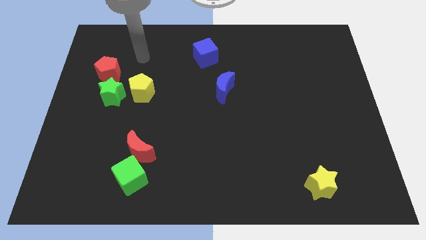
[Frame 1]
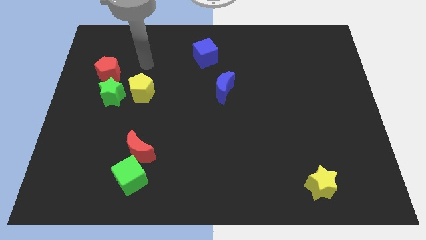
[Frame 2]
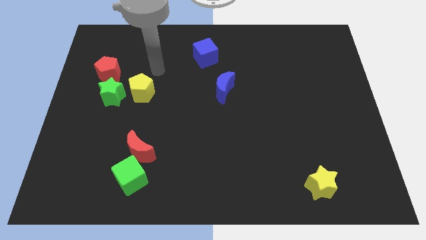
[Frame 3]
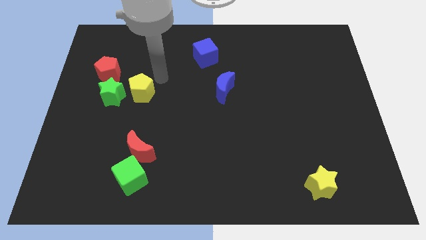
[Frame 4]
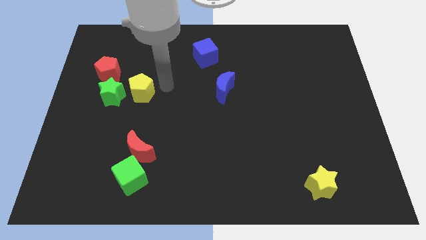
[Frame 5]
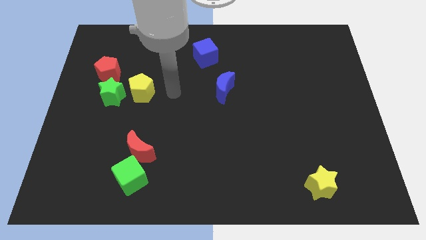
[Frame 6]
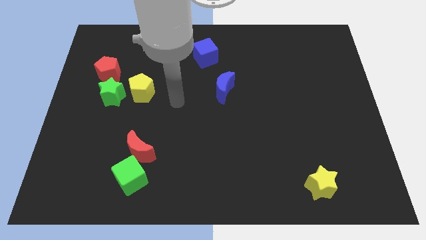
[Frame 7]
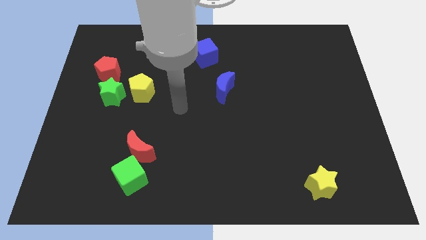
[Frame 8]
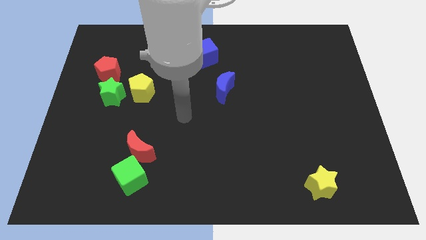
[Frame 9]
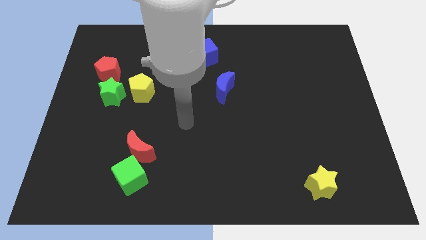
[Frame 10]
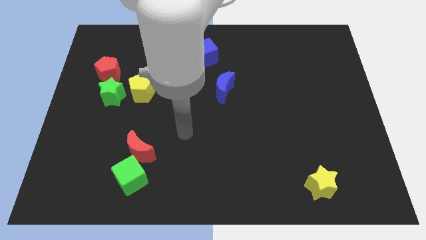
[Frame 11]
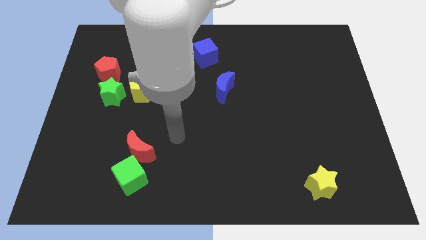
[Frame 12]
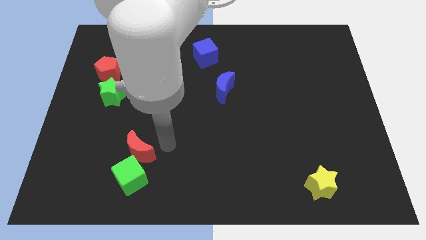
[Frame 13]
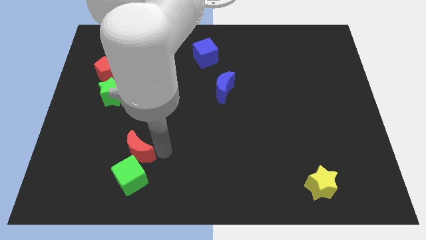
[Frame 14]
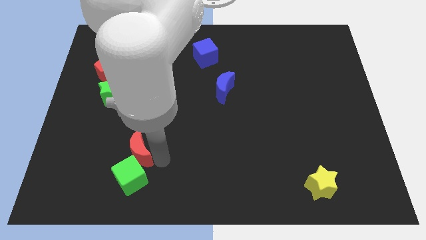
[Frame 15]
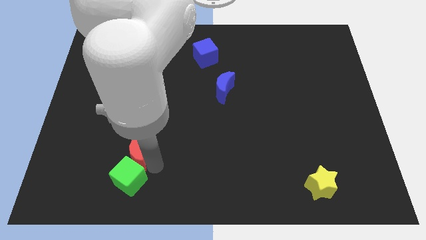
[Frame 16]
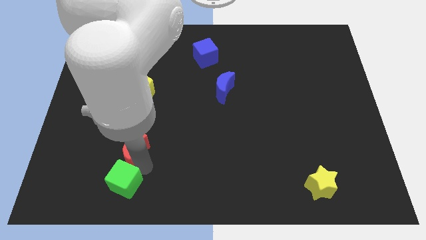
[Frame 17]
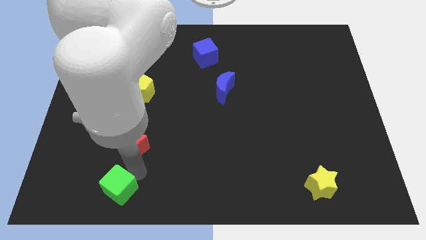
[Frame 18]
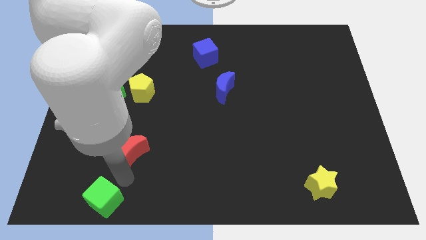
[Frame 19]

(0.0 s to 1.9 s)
separate the red moon from the green cube

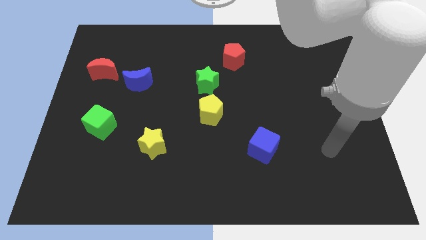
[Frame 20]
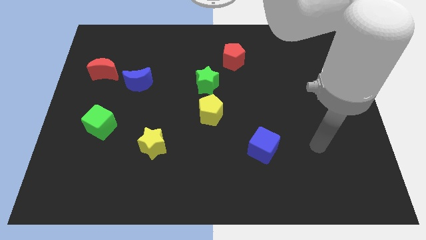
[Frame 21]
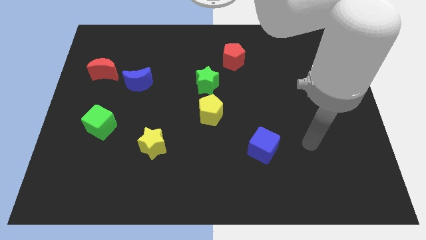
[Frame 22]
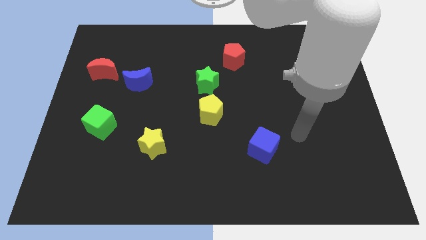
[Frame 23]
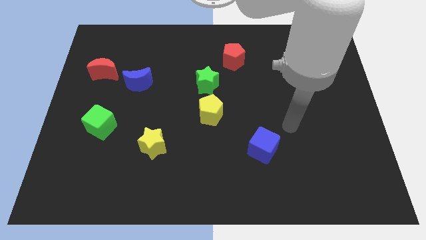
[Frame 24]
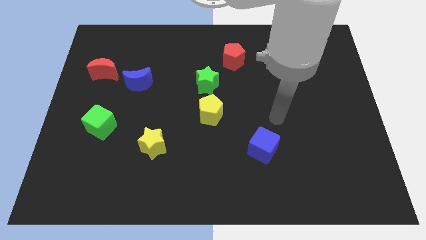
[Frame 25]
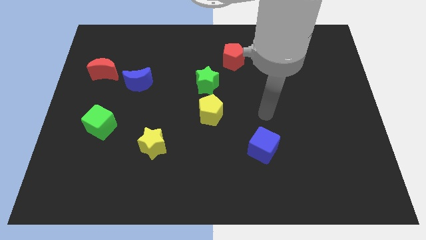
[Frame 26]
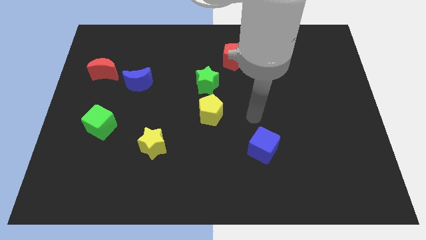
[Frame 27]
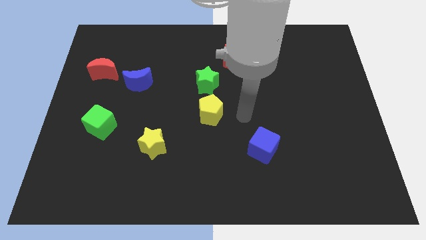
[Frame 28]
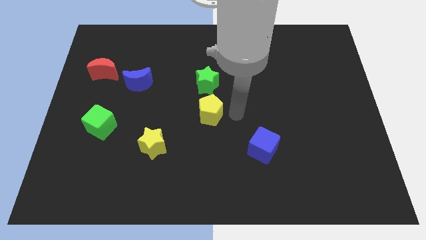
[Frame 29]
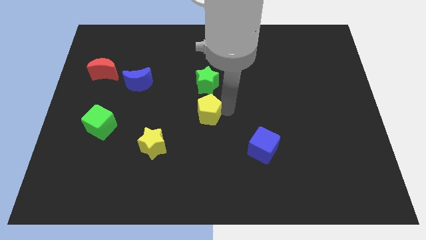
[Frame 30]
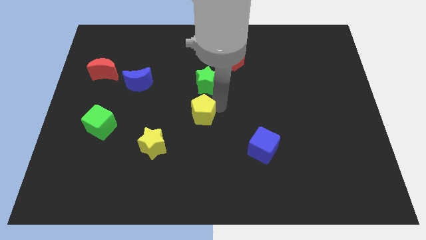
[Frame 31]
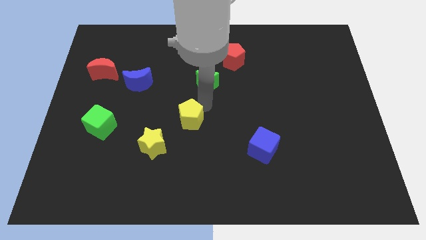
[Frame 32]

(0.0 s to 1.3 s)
move the green star away from the yellow pentagon

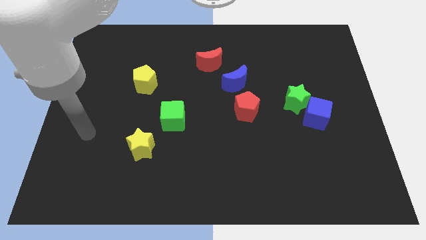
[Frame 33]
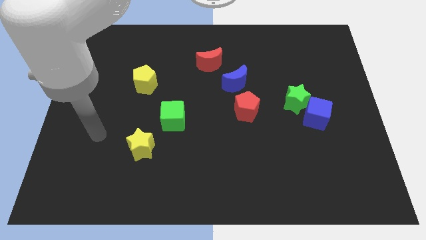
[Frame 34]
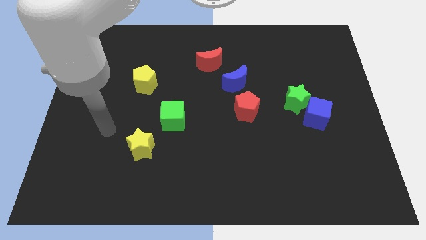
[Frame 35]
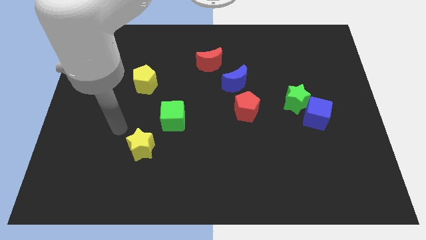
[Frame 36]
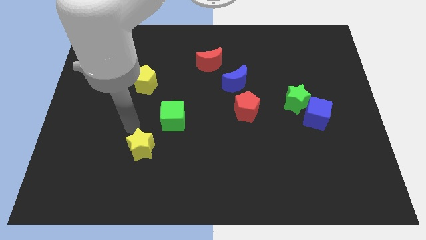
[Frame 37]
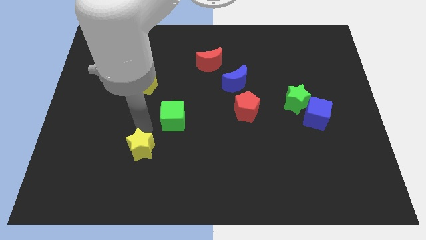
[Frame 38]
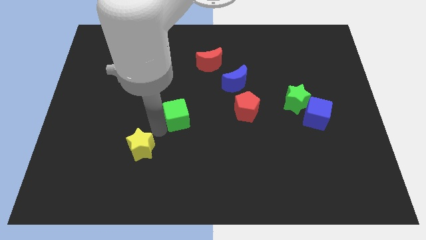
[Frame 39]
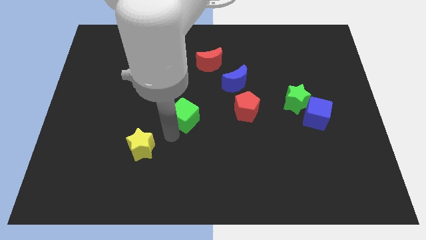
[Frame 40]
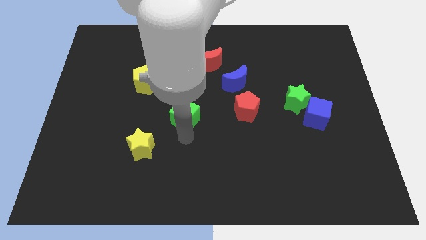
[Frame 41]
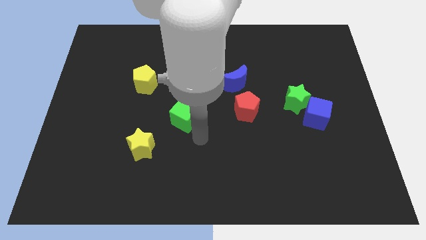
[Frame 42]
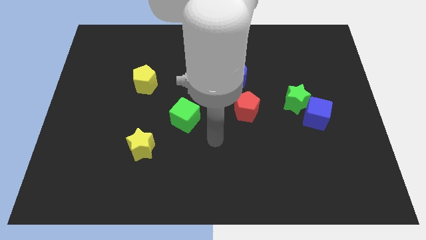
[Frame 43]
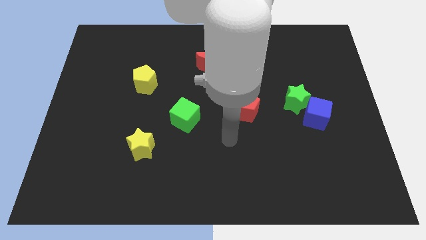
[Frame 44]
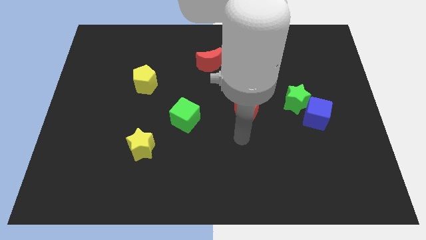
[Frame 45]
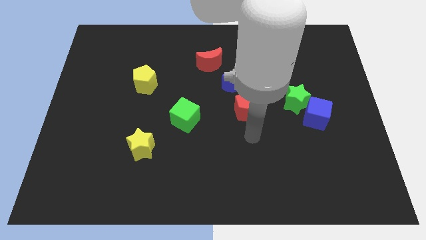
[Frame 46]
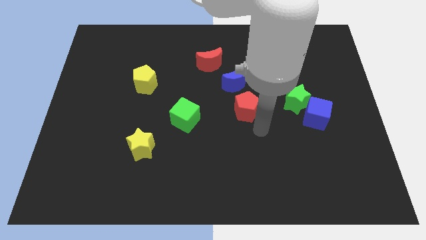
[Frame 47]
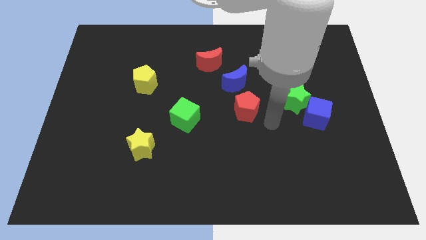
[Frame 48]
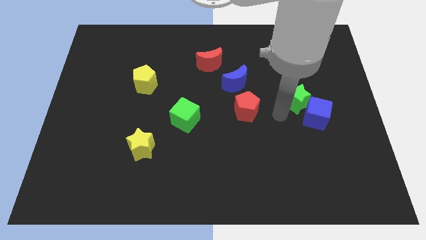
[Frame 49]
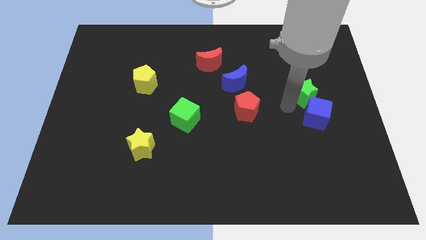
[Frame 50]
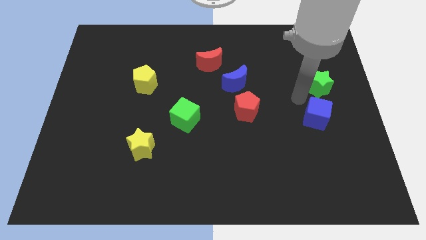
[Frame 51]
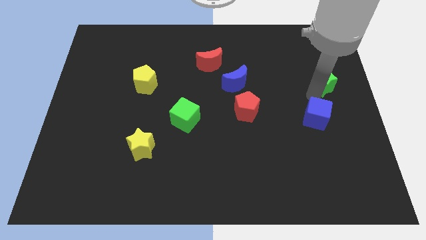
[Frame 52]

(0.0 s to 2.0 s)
separate the blue cube from the green star

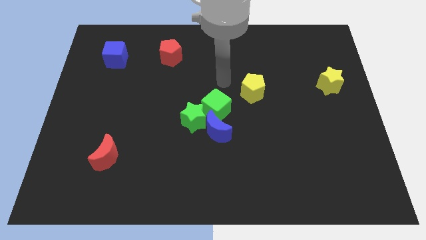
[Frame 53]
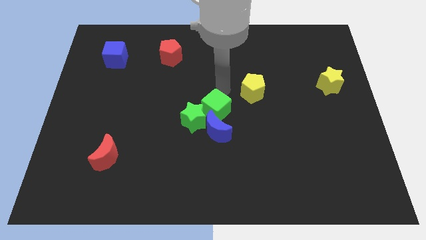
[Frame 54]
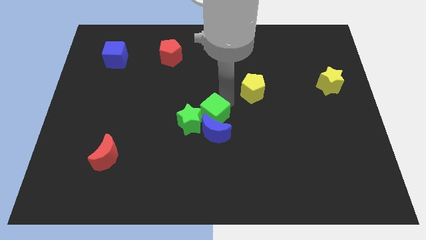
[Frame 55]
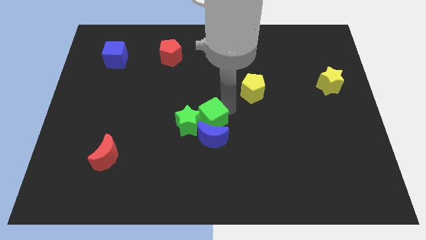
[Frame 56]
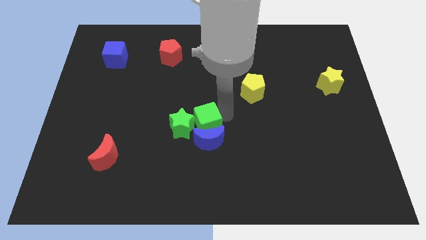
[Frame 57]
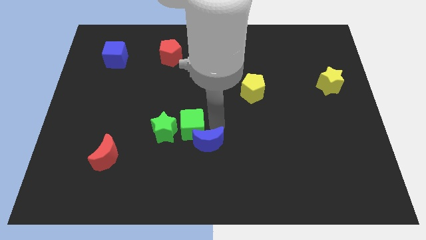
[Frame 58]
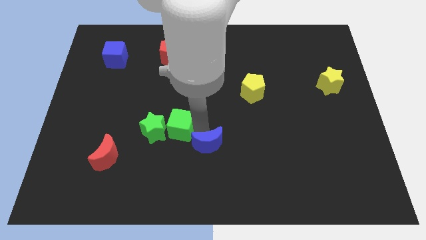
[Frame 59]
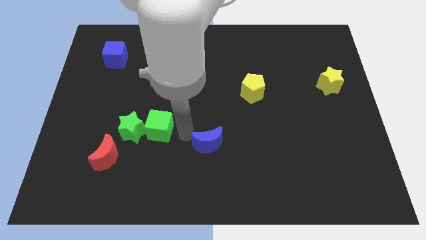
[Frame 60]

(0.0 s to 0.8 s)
move the green star away from the green cube and blue moon

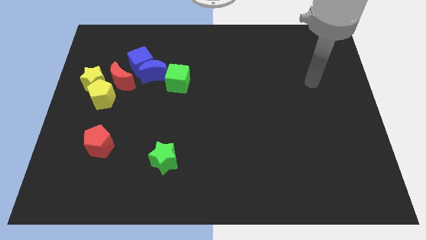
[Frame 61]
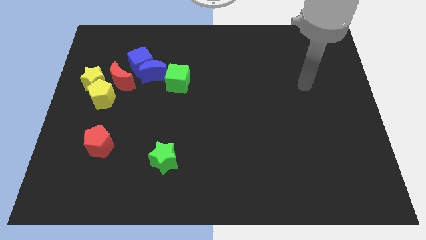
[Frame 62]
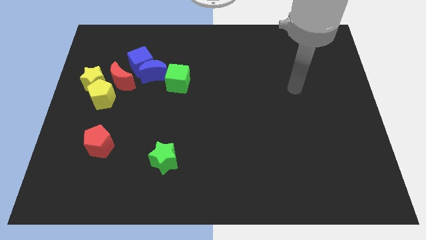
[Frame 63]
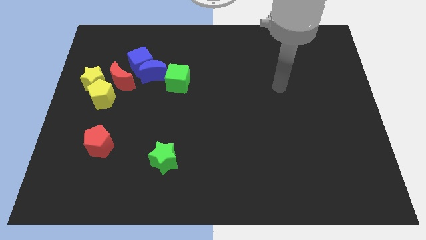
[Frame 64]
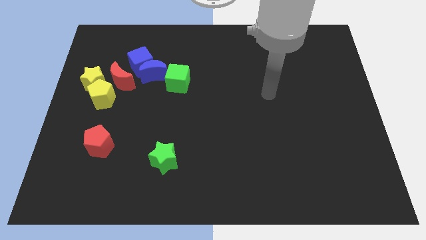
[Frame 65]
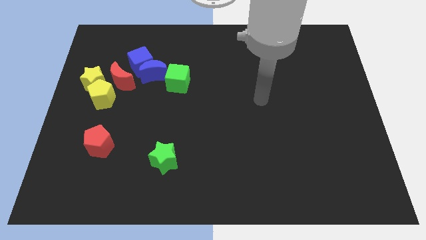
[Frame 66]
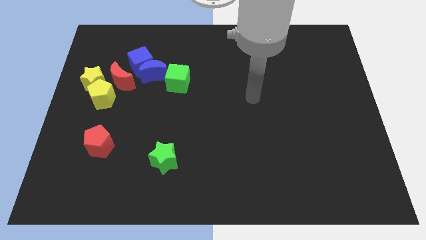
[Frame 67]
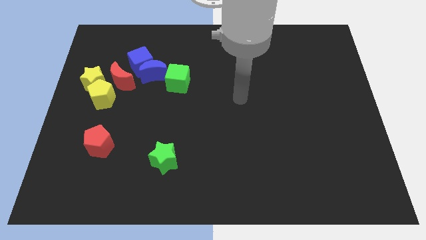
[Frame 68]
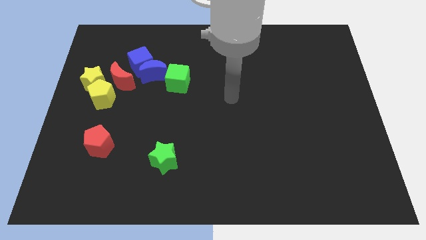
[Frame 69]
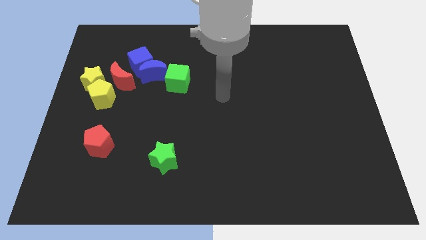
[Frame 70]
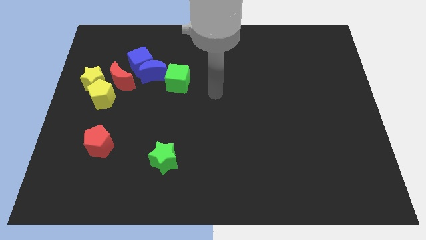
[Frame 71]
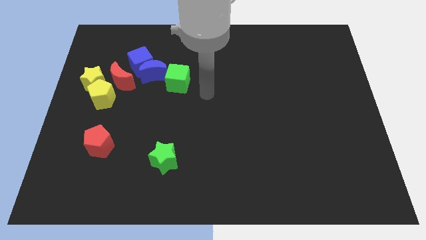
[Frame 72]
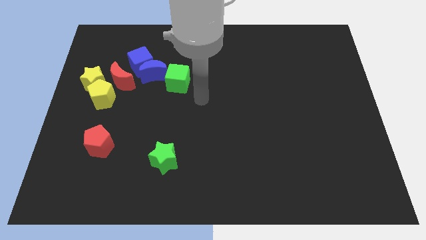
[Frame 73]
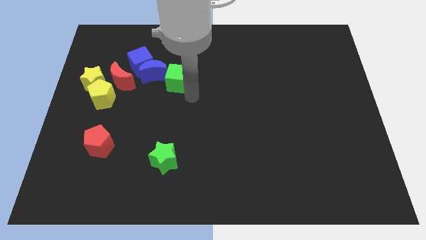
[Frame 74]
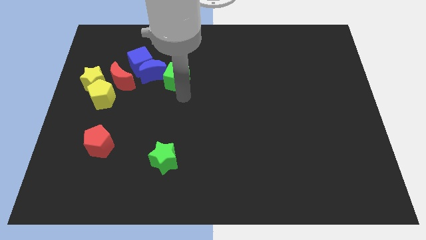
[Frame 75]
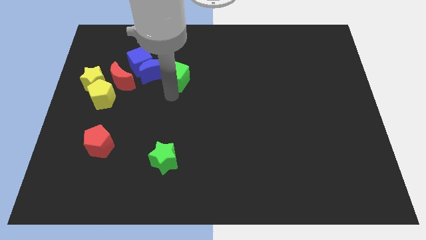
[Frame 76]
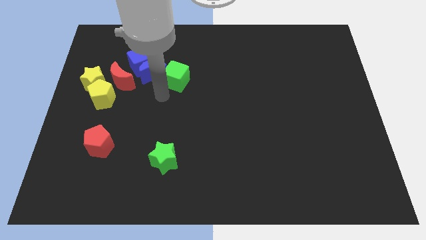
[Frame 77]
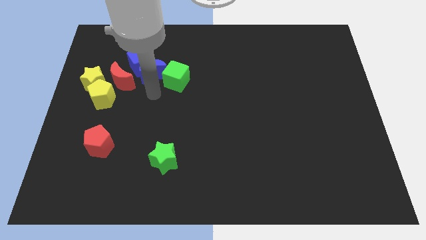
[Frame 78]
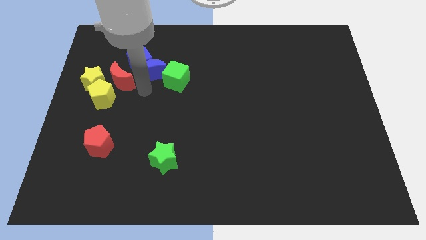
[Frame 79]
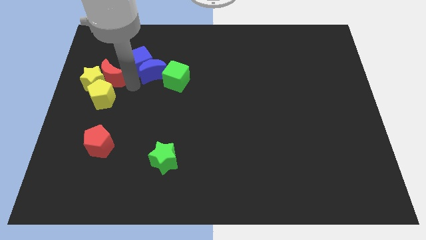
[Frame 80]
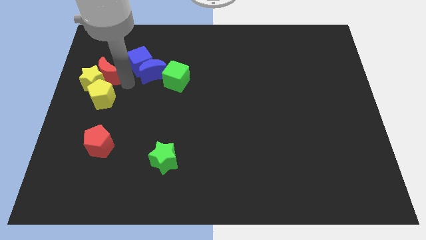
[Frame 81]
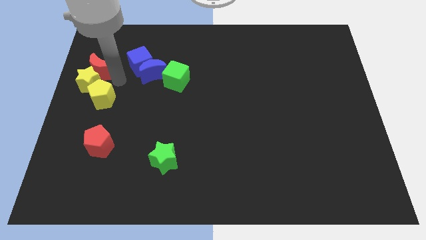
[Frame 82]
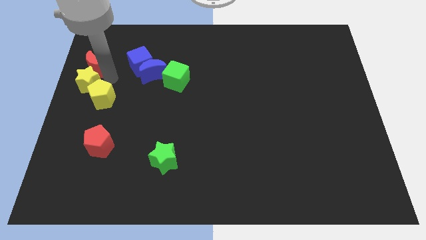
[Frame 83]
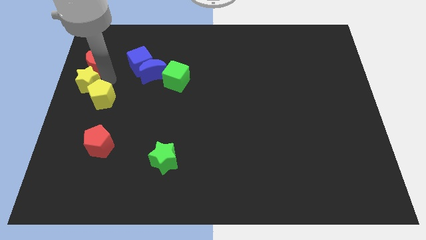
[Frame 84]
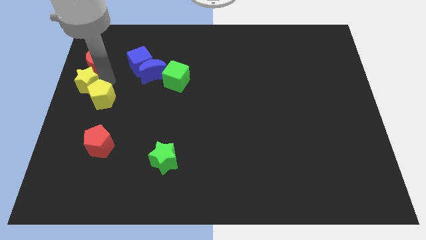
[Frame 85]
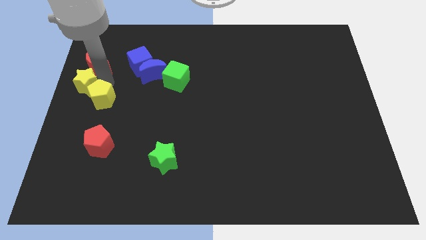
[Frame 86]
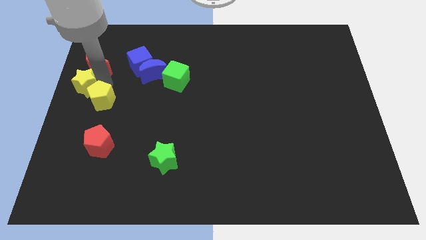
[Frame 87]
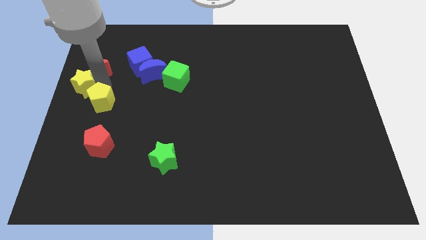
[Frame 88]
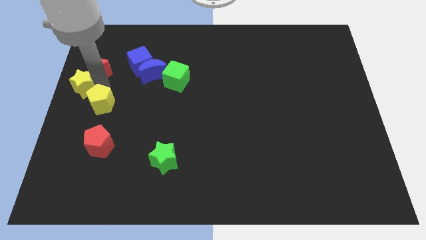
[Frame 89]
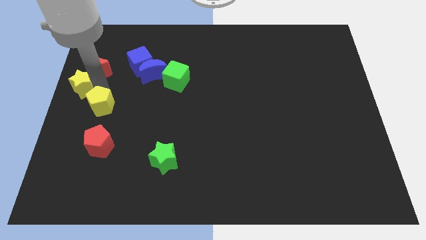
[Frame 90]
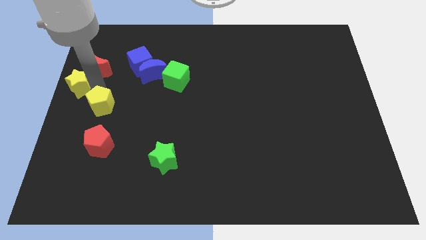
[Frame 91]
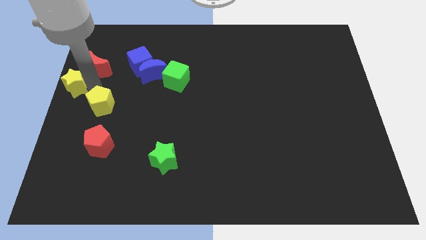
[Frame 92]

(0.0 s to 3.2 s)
pull the yellow pentagon apart from the yellow star and red moon

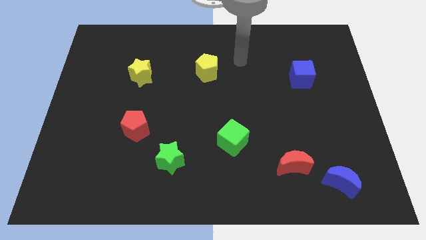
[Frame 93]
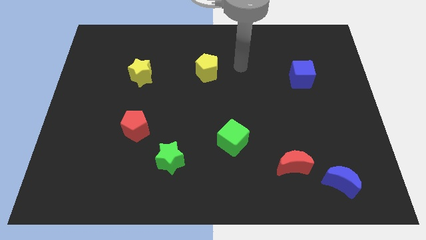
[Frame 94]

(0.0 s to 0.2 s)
move the red moon away from the blue moon

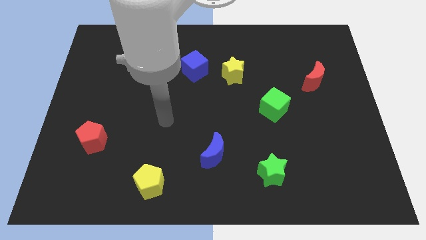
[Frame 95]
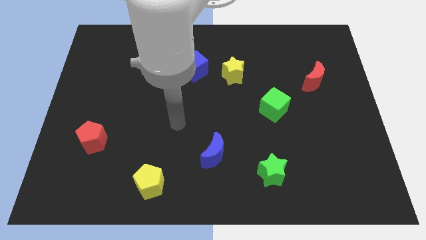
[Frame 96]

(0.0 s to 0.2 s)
move the blue cube away from the yellow star
